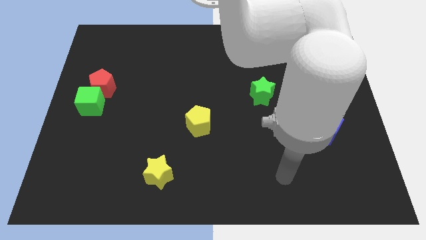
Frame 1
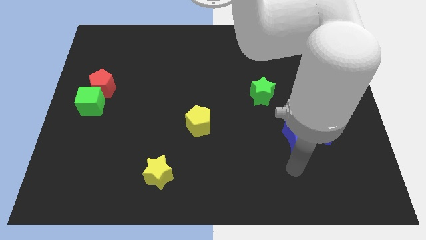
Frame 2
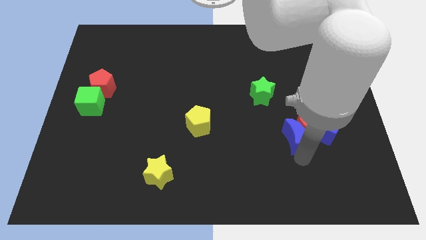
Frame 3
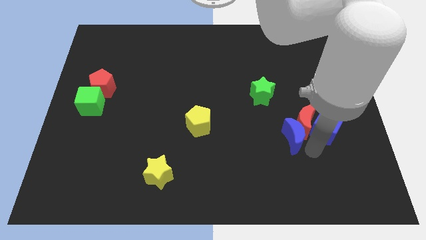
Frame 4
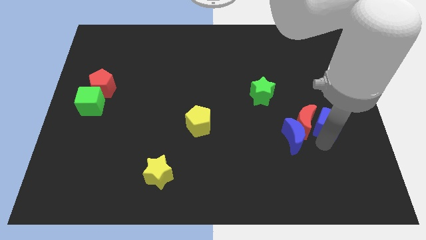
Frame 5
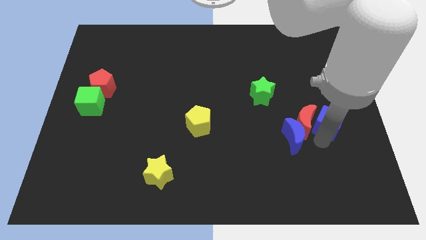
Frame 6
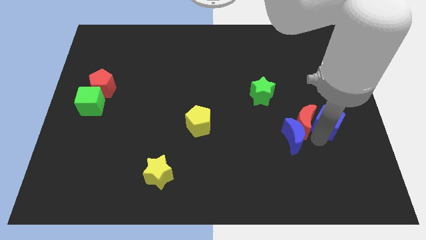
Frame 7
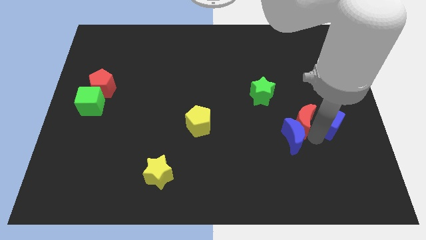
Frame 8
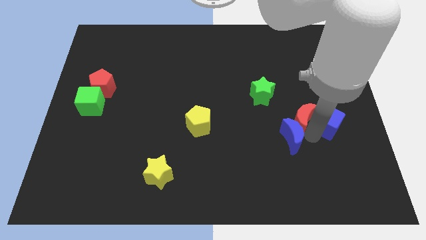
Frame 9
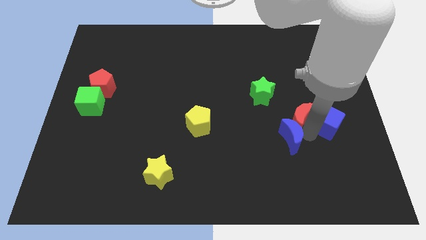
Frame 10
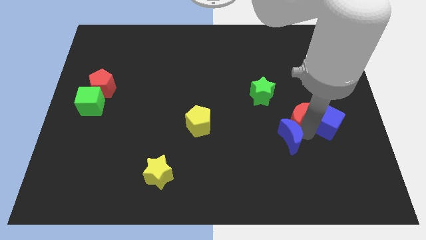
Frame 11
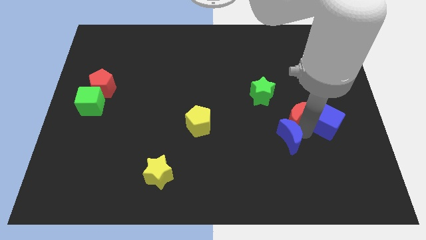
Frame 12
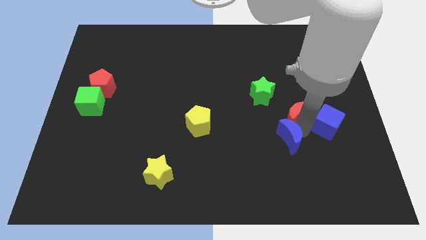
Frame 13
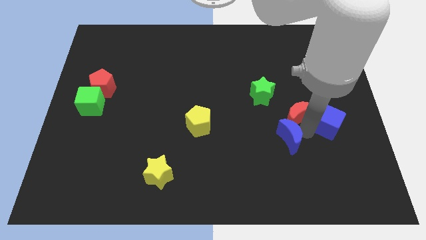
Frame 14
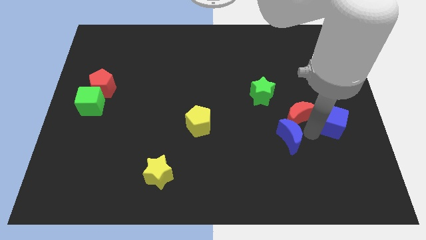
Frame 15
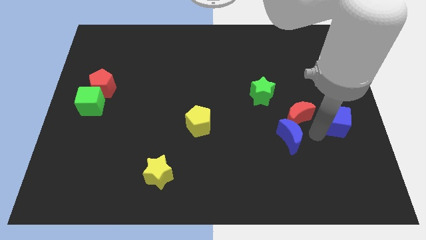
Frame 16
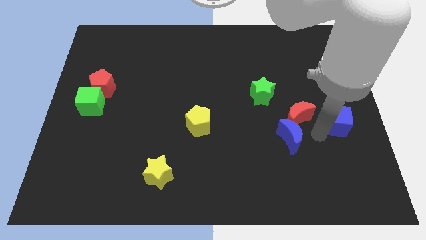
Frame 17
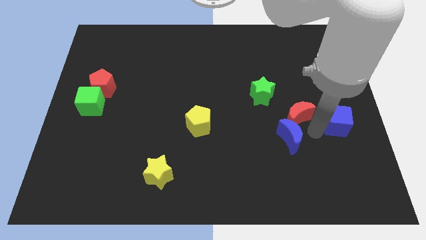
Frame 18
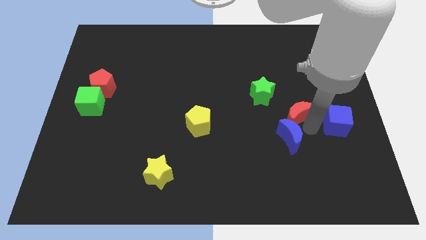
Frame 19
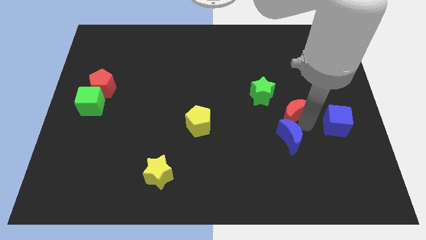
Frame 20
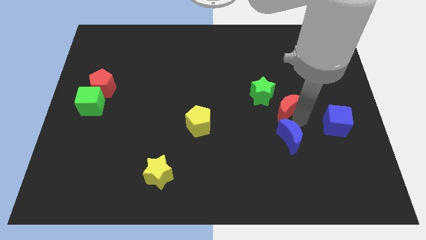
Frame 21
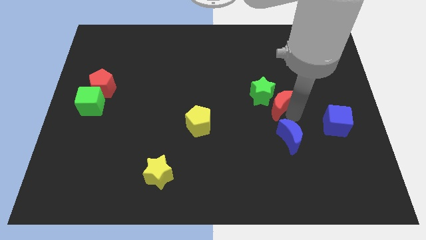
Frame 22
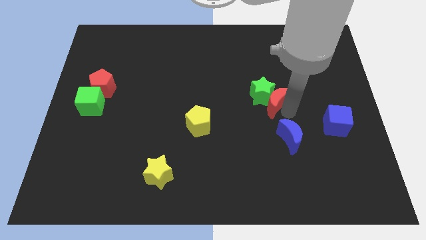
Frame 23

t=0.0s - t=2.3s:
separate the red moon from the blue moon and blue cube

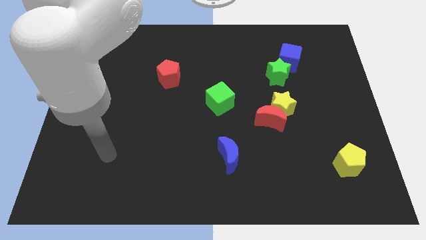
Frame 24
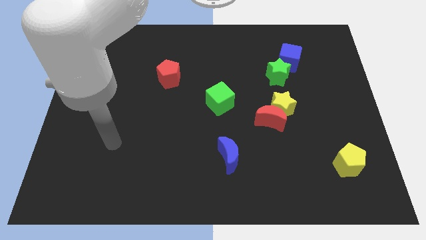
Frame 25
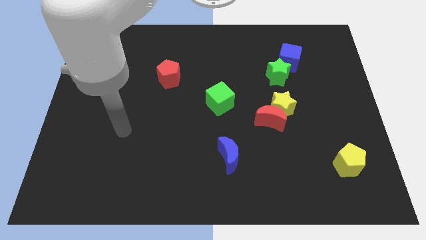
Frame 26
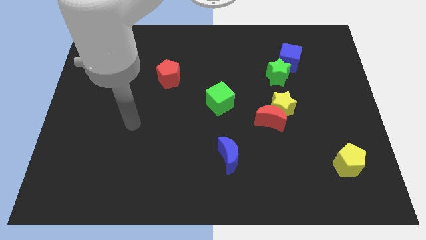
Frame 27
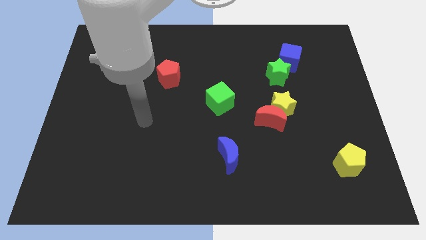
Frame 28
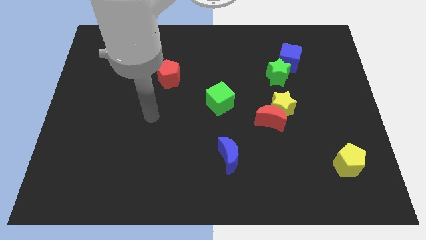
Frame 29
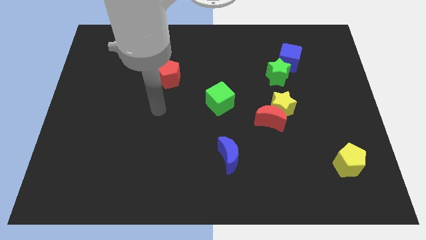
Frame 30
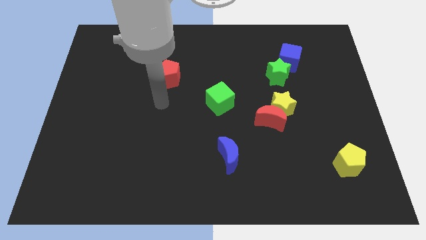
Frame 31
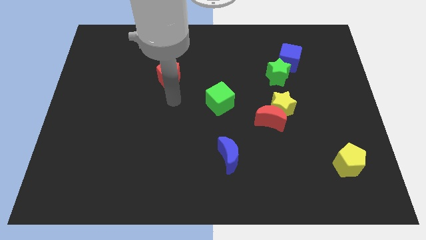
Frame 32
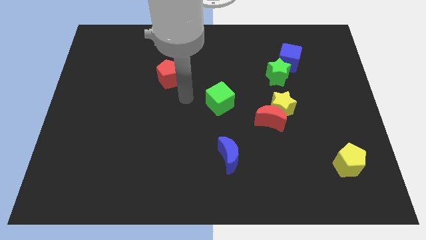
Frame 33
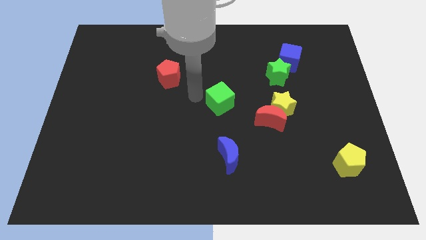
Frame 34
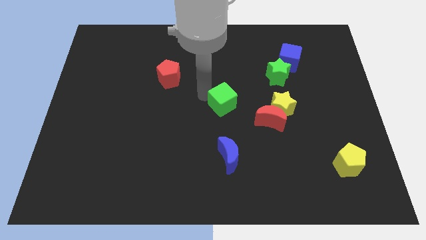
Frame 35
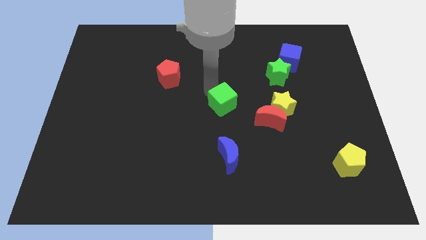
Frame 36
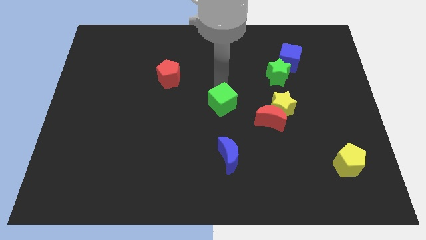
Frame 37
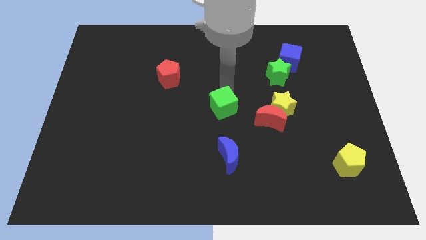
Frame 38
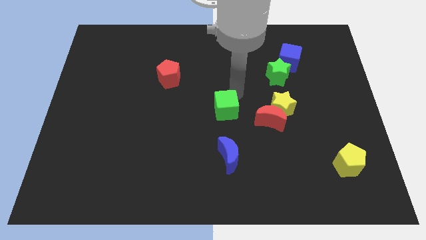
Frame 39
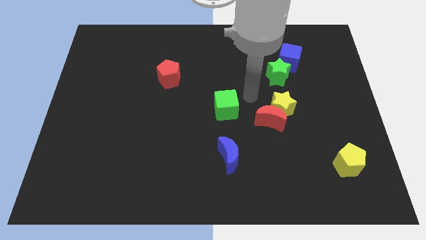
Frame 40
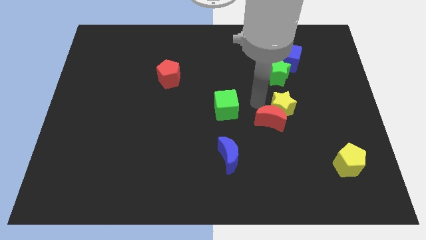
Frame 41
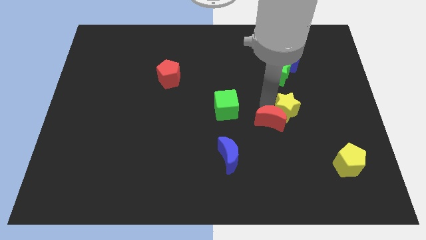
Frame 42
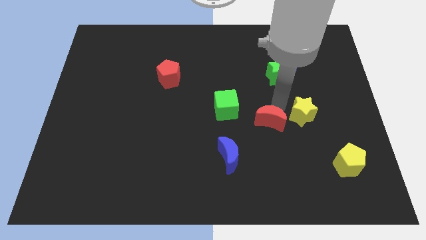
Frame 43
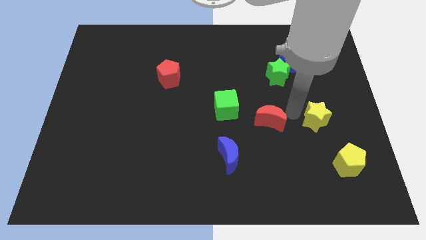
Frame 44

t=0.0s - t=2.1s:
pull the red moon apart from the yellow star

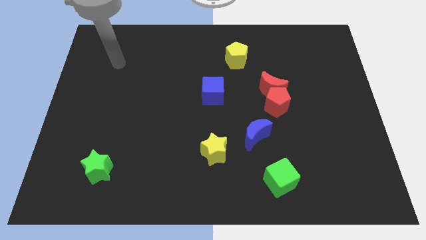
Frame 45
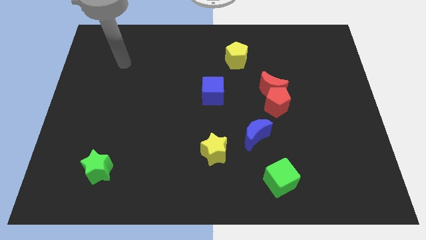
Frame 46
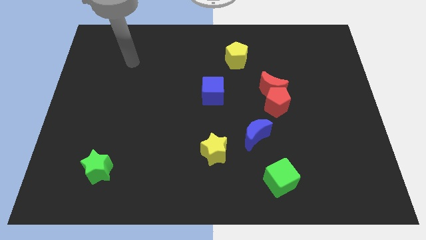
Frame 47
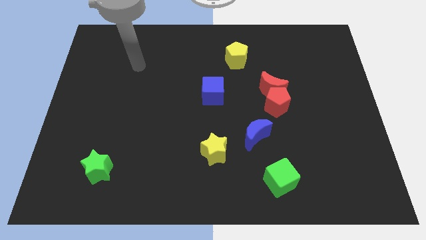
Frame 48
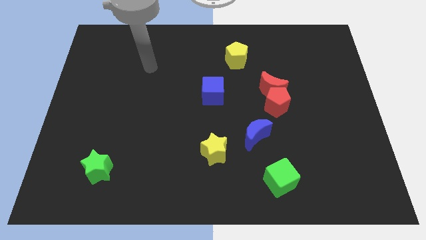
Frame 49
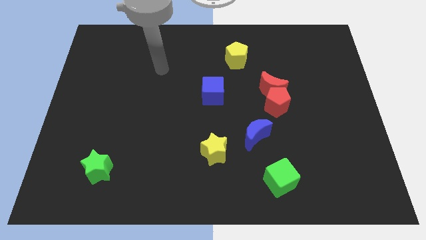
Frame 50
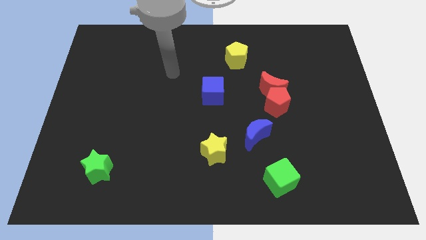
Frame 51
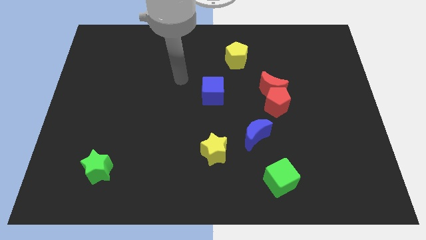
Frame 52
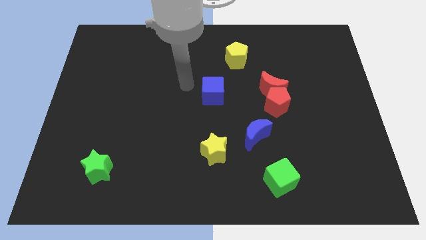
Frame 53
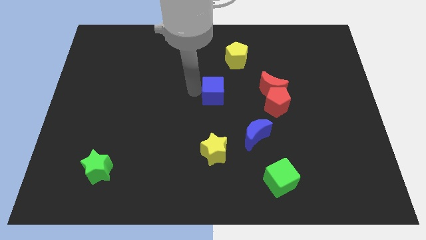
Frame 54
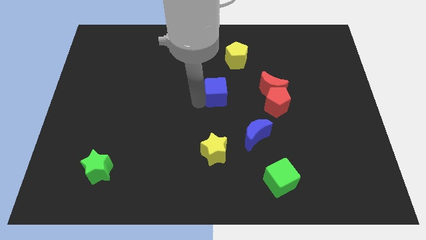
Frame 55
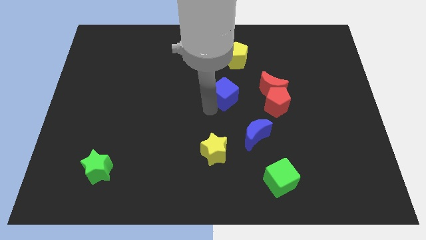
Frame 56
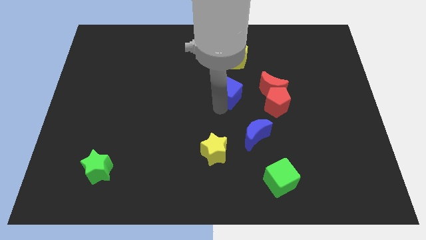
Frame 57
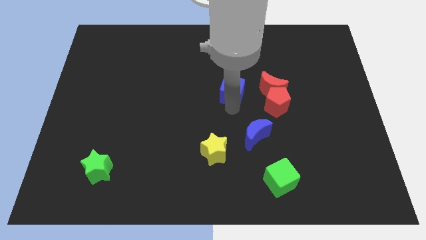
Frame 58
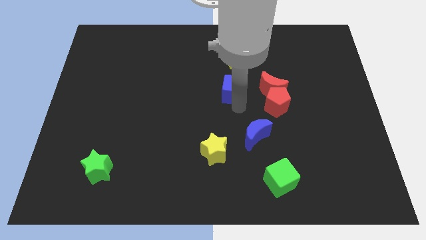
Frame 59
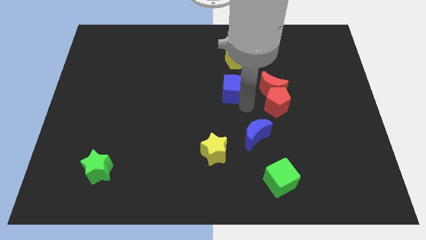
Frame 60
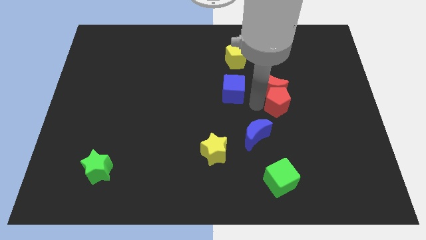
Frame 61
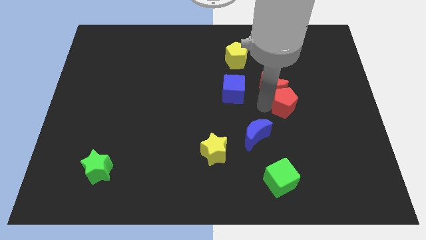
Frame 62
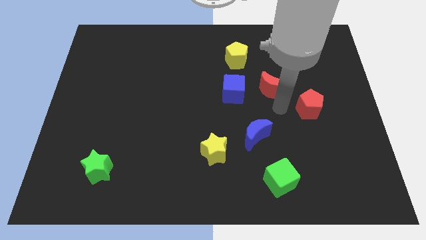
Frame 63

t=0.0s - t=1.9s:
separate the red moon from the red pentagon

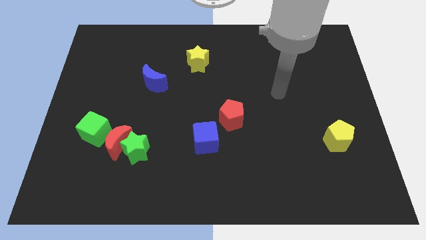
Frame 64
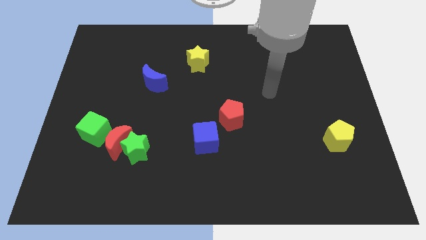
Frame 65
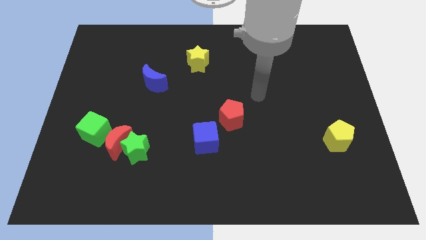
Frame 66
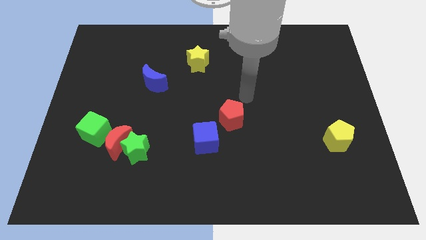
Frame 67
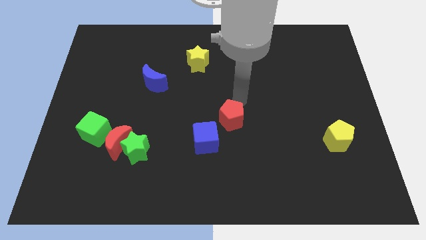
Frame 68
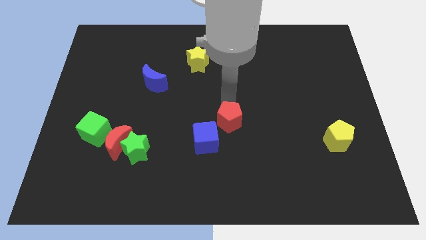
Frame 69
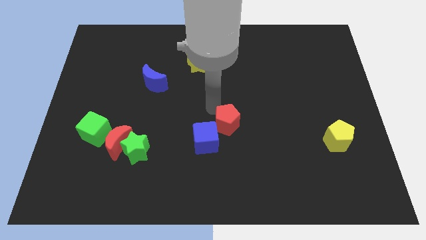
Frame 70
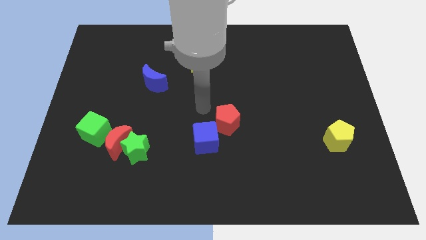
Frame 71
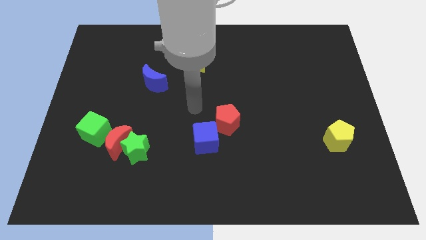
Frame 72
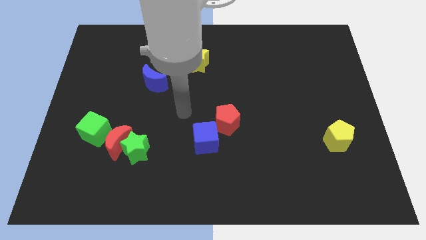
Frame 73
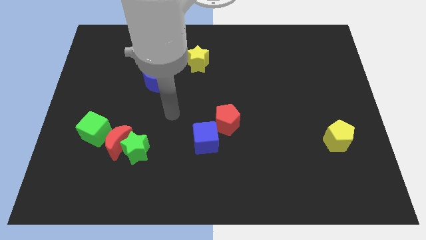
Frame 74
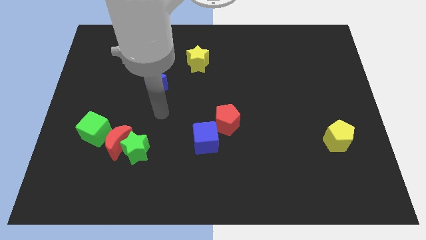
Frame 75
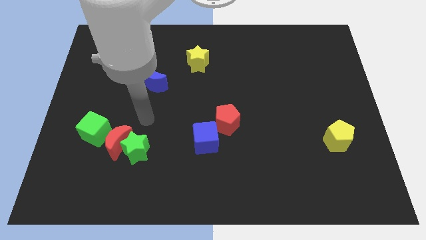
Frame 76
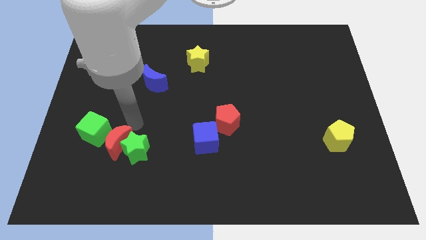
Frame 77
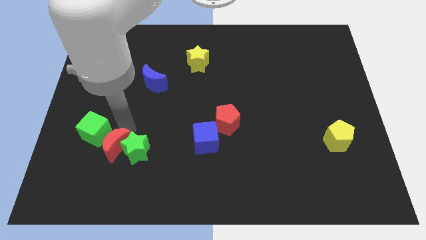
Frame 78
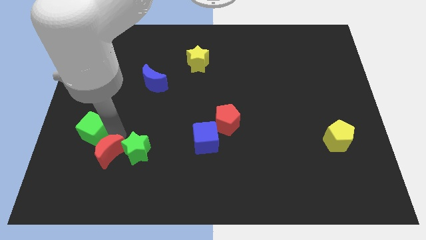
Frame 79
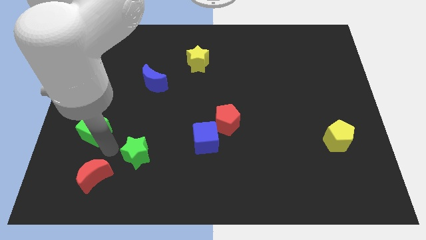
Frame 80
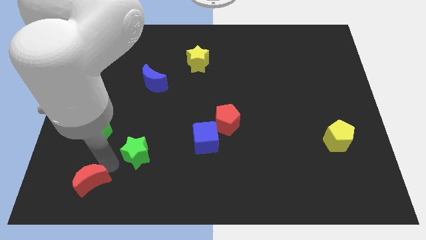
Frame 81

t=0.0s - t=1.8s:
separate the green star from the red moon

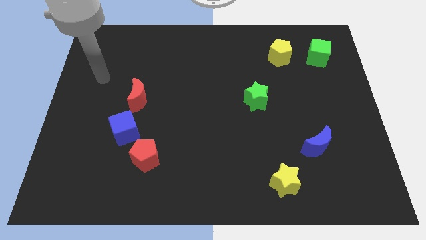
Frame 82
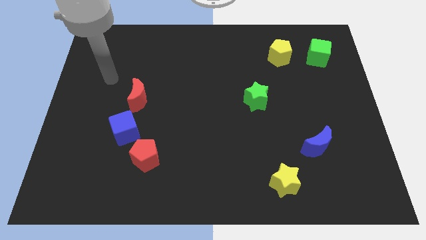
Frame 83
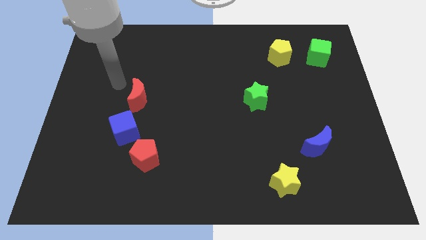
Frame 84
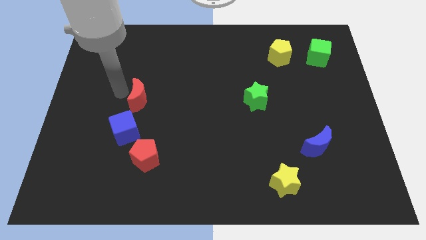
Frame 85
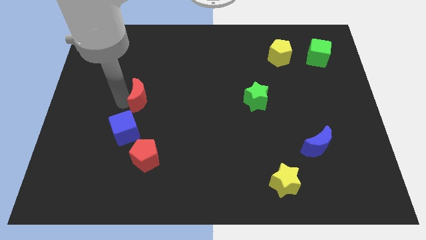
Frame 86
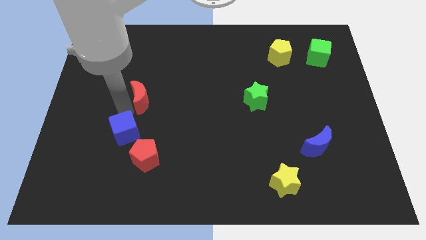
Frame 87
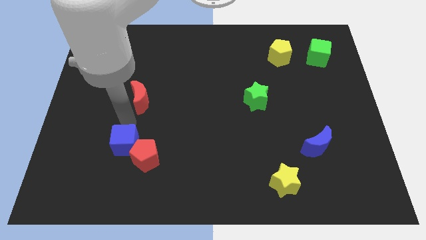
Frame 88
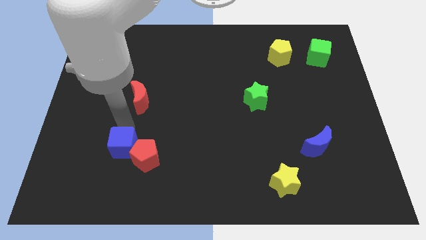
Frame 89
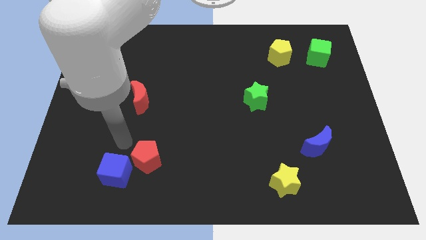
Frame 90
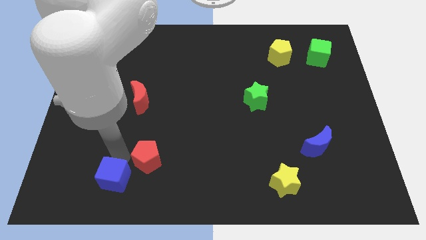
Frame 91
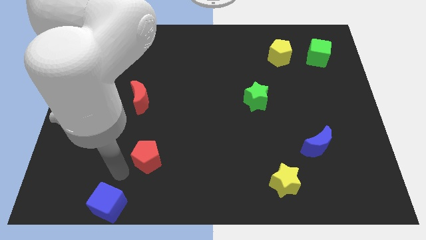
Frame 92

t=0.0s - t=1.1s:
separate the red pentagon from the blue cube
